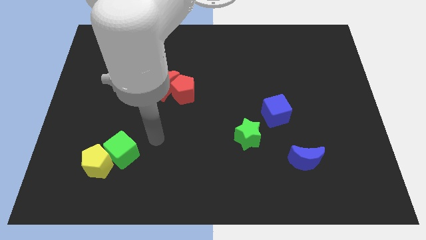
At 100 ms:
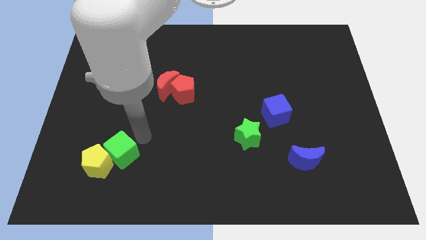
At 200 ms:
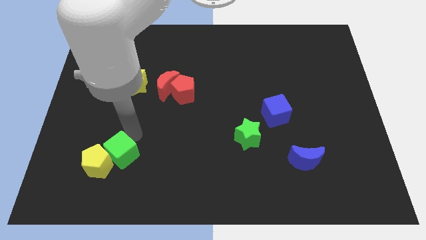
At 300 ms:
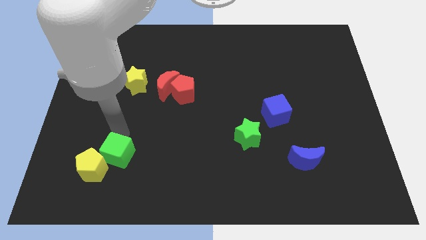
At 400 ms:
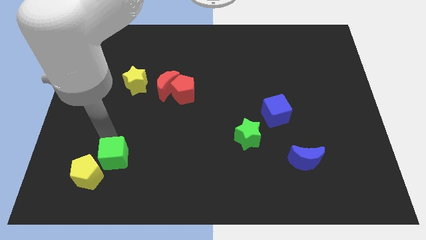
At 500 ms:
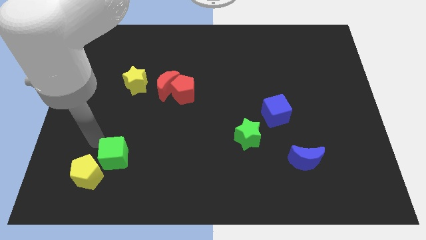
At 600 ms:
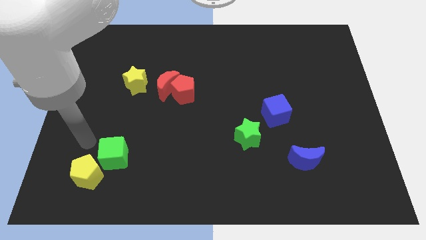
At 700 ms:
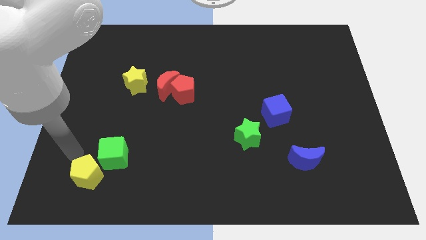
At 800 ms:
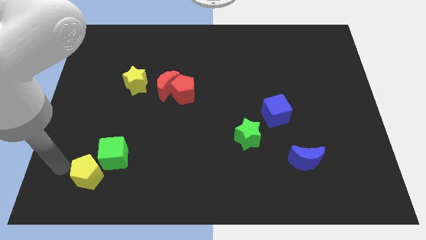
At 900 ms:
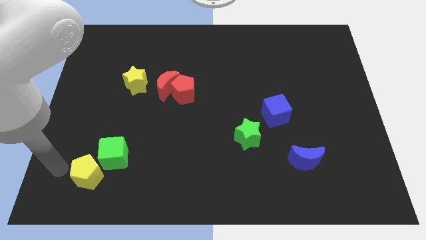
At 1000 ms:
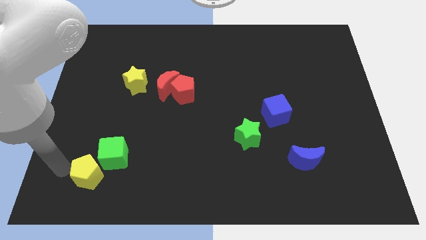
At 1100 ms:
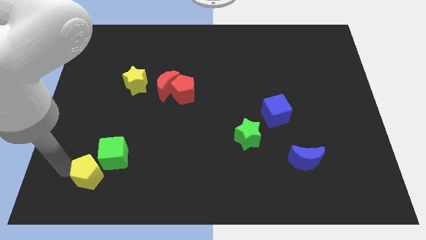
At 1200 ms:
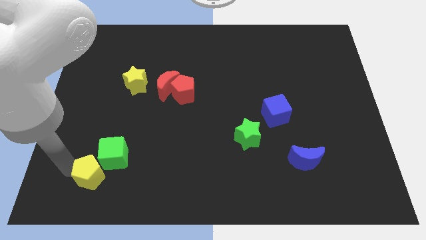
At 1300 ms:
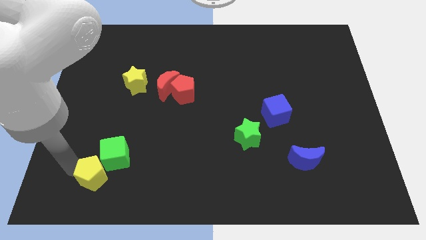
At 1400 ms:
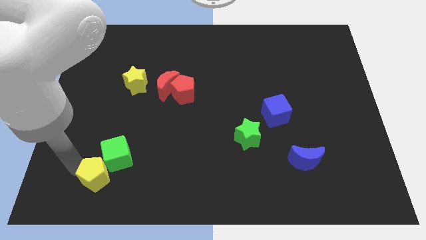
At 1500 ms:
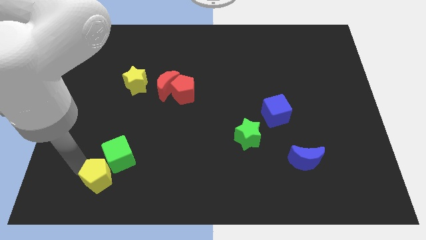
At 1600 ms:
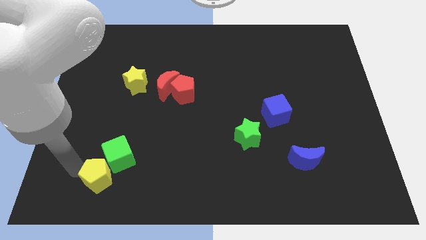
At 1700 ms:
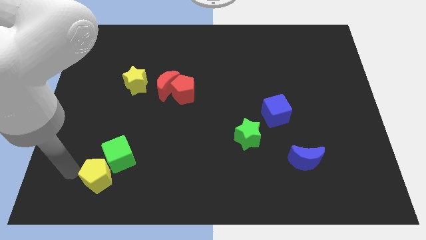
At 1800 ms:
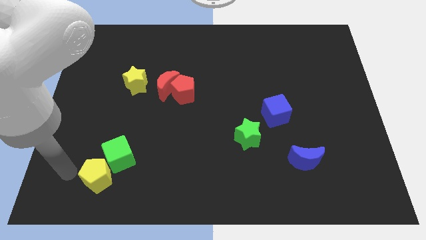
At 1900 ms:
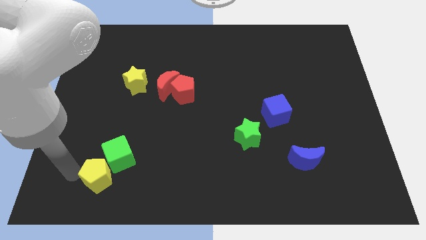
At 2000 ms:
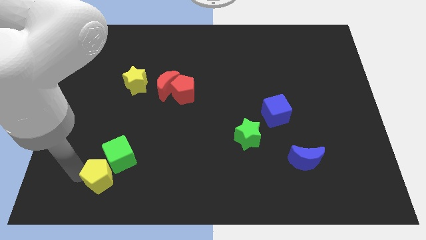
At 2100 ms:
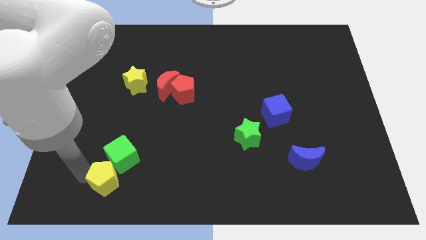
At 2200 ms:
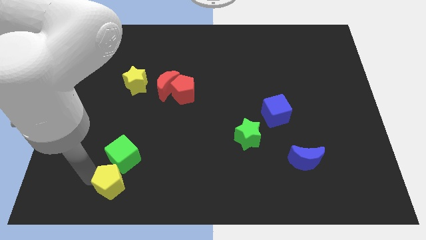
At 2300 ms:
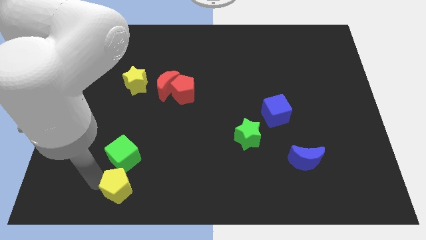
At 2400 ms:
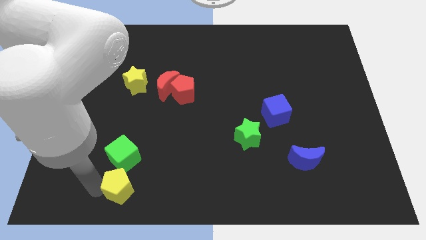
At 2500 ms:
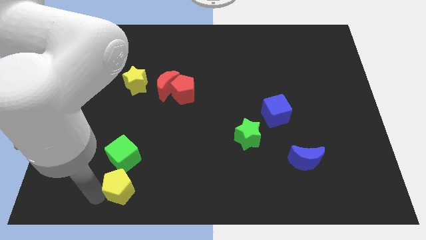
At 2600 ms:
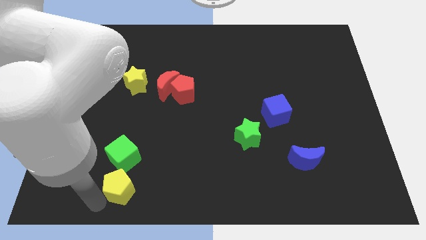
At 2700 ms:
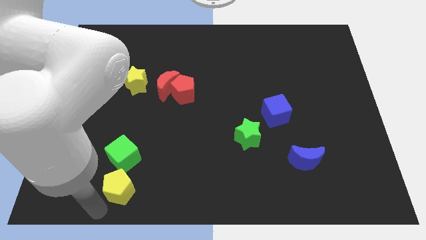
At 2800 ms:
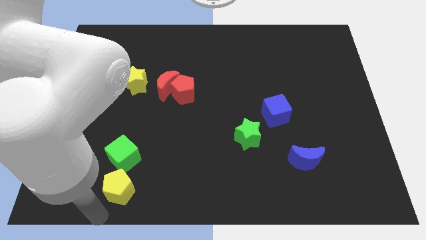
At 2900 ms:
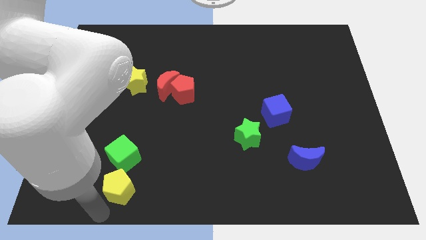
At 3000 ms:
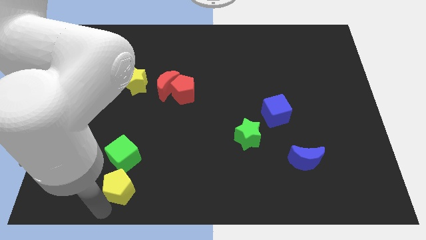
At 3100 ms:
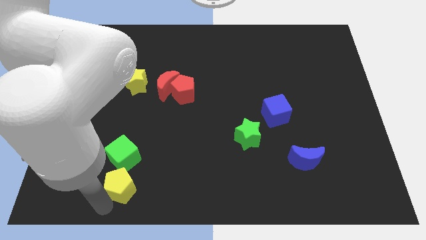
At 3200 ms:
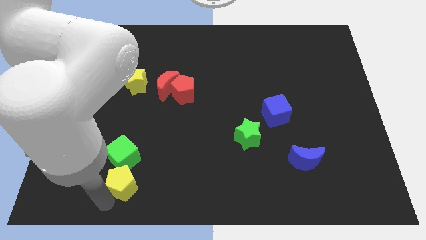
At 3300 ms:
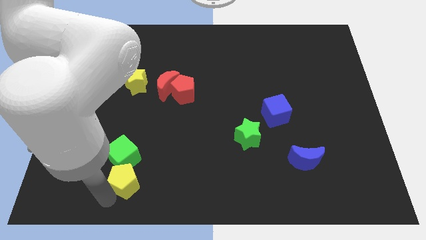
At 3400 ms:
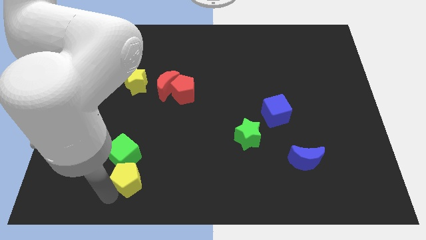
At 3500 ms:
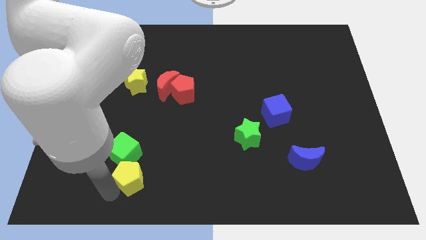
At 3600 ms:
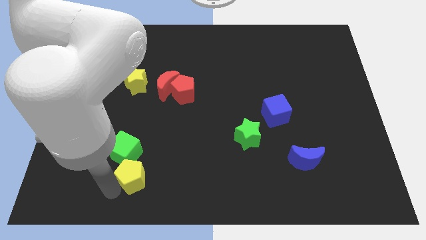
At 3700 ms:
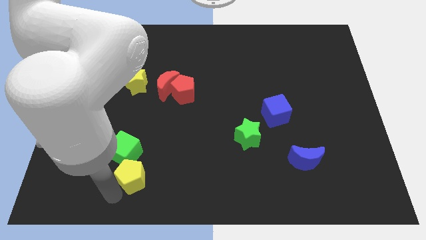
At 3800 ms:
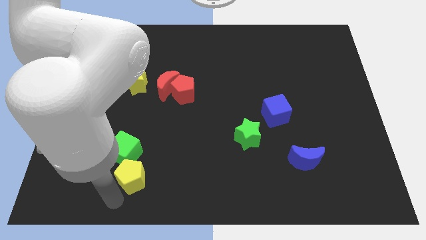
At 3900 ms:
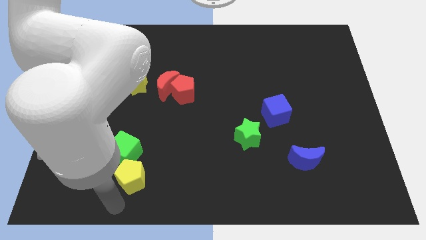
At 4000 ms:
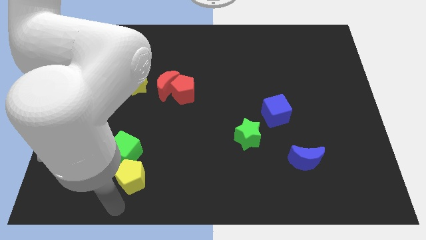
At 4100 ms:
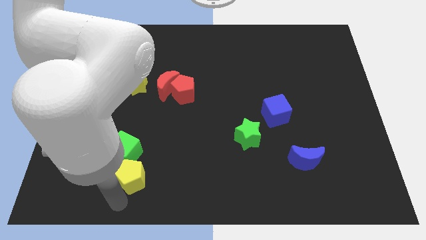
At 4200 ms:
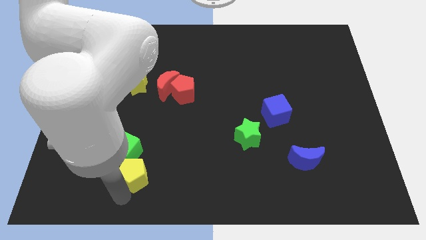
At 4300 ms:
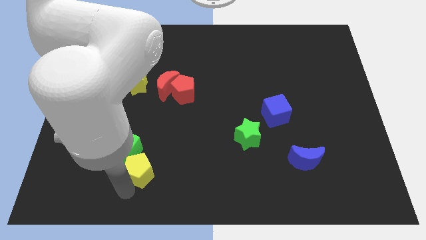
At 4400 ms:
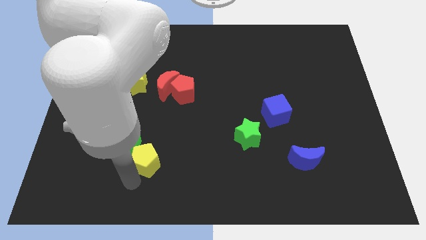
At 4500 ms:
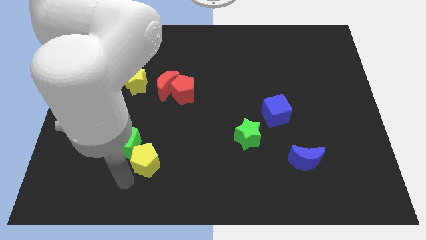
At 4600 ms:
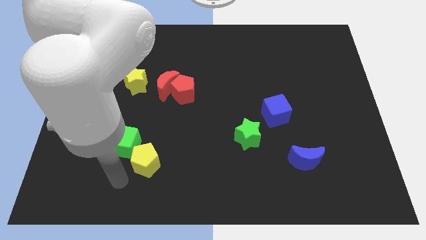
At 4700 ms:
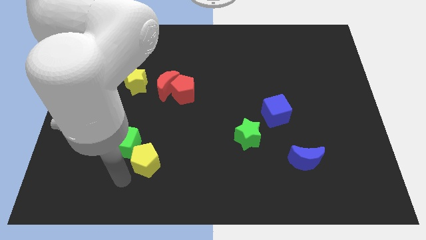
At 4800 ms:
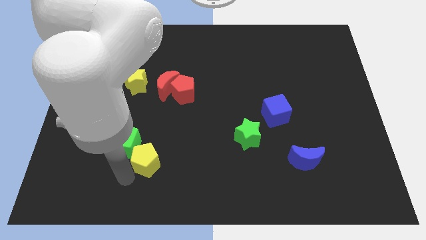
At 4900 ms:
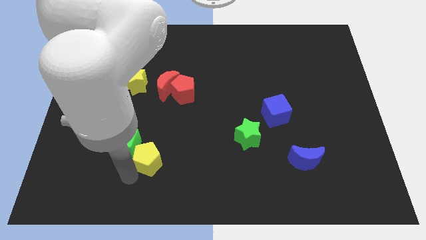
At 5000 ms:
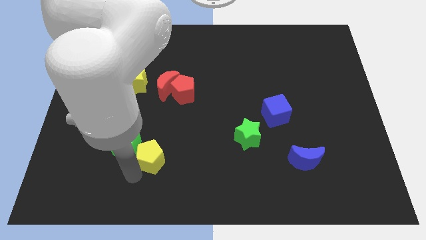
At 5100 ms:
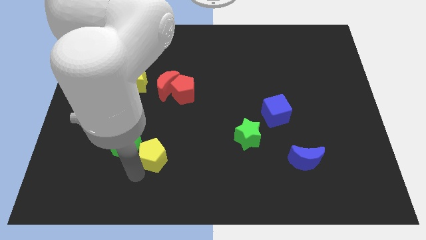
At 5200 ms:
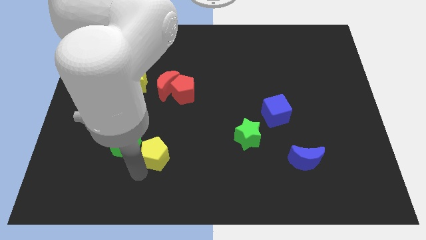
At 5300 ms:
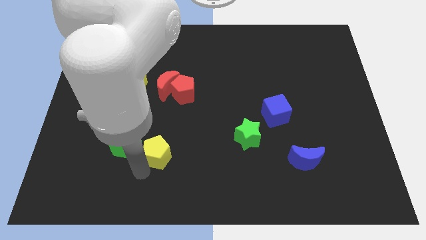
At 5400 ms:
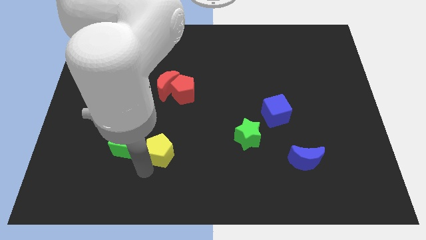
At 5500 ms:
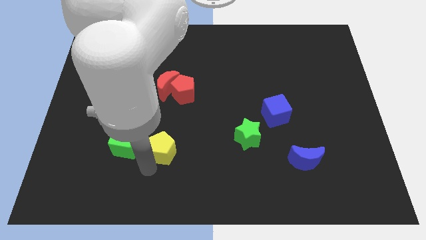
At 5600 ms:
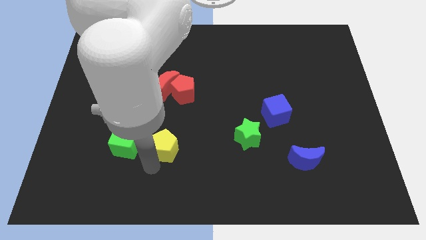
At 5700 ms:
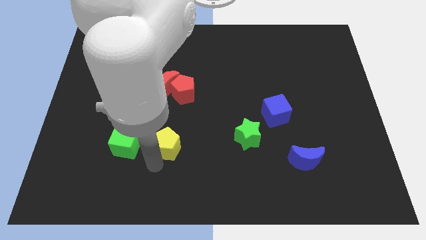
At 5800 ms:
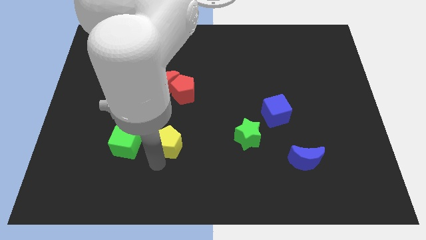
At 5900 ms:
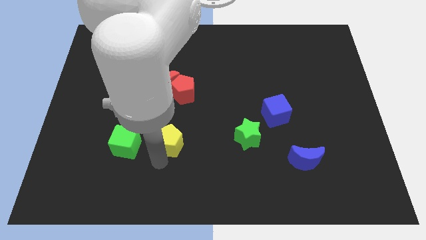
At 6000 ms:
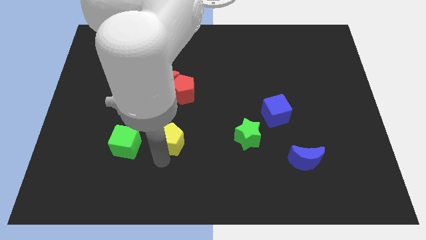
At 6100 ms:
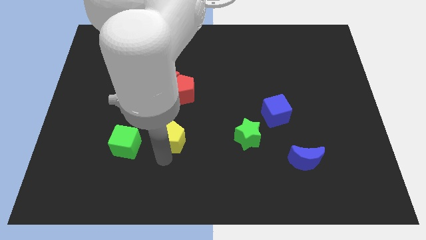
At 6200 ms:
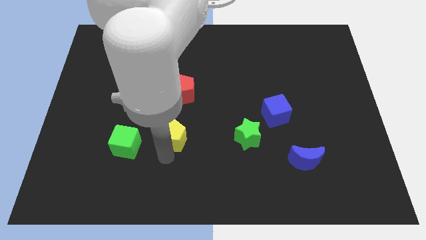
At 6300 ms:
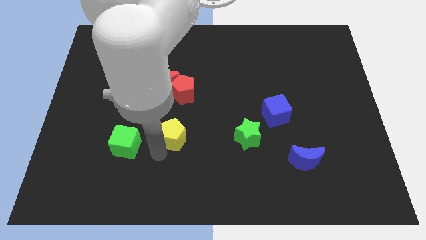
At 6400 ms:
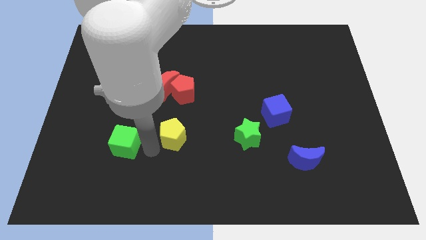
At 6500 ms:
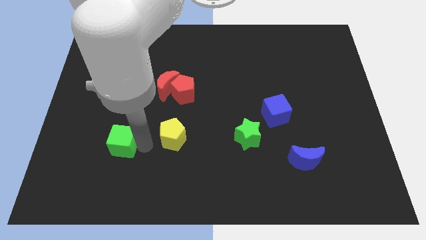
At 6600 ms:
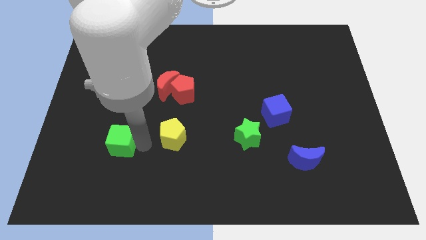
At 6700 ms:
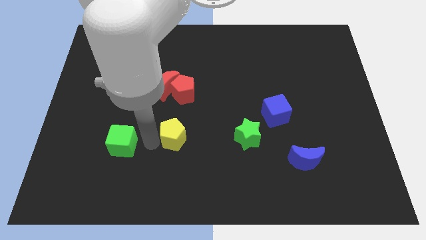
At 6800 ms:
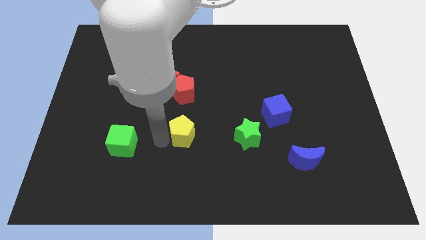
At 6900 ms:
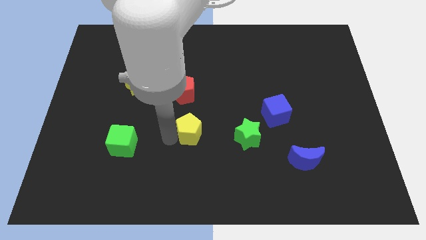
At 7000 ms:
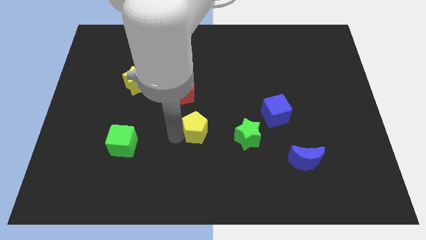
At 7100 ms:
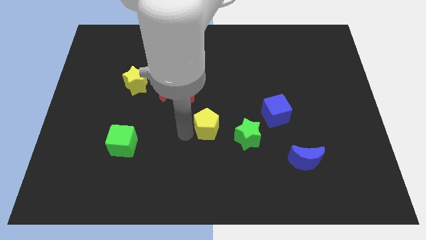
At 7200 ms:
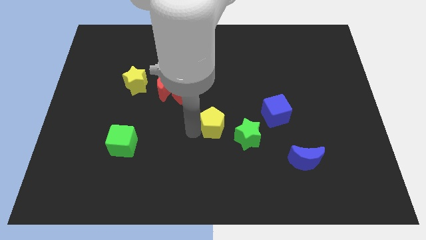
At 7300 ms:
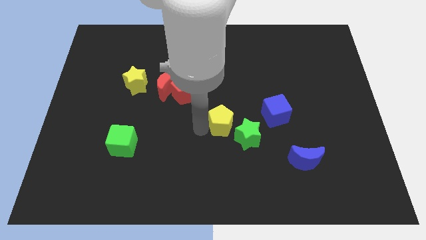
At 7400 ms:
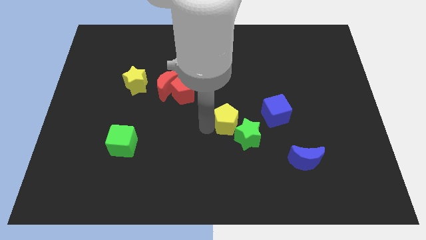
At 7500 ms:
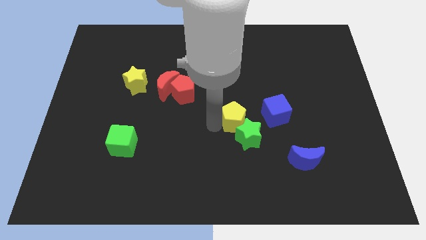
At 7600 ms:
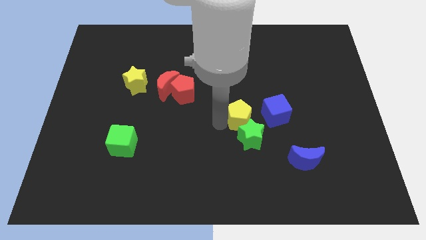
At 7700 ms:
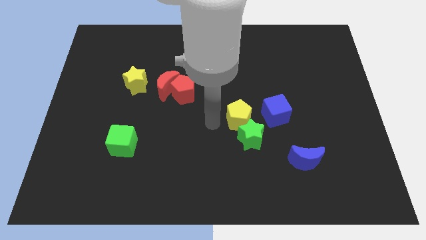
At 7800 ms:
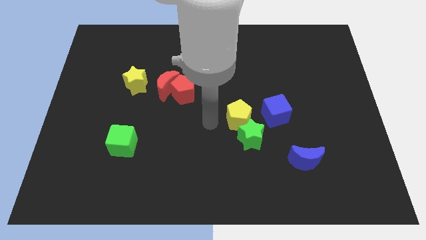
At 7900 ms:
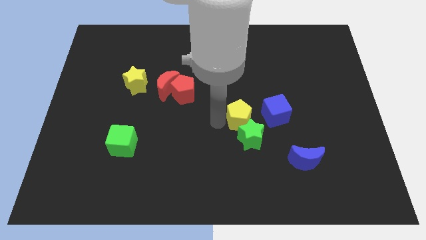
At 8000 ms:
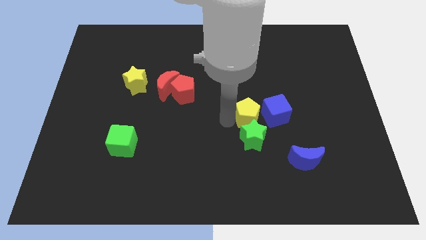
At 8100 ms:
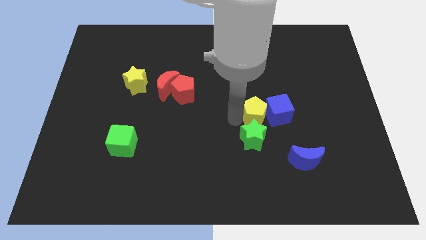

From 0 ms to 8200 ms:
push the yellow pentagon close to the blue cube
